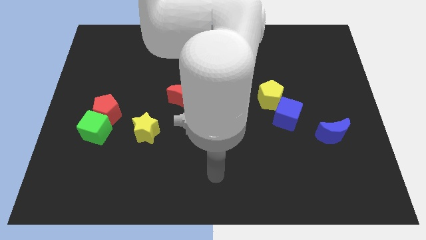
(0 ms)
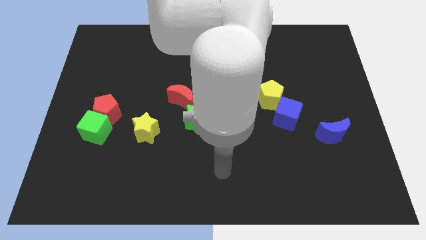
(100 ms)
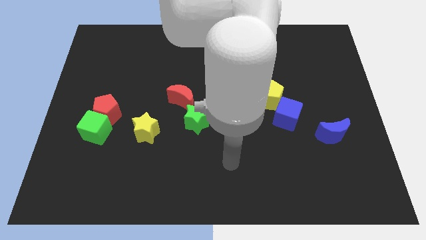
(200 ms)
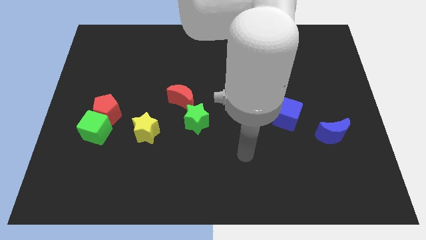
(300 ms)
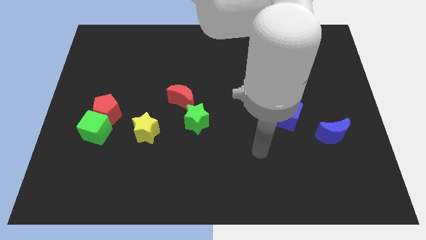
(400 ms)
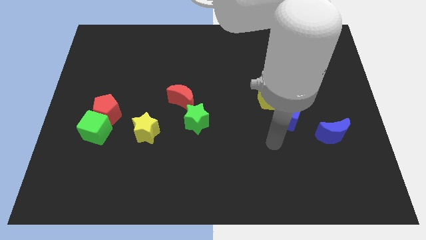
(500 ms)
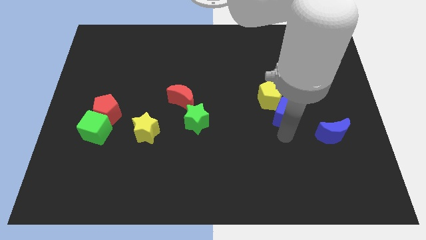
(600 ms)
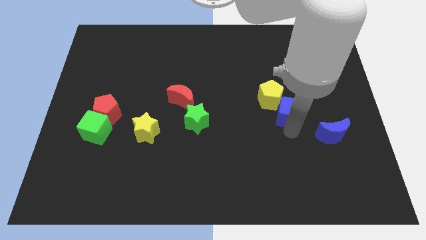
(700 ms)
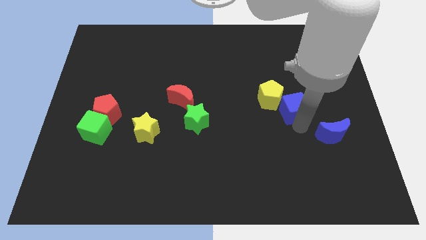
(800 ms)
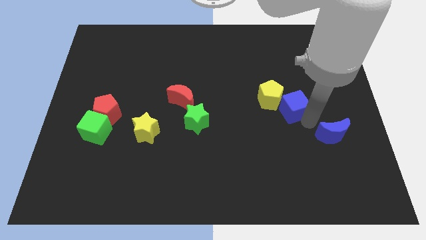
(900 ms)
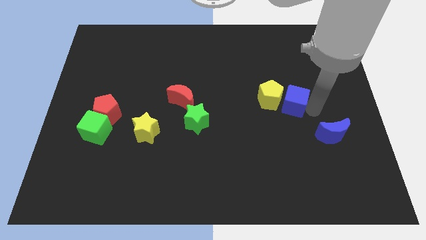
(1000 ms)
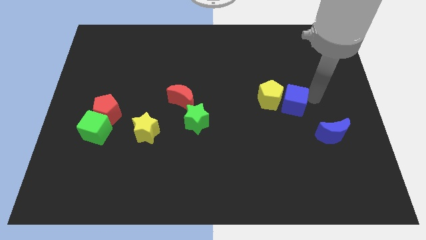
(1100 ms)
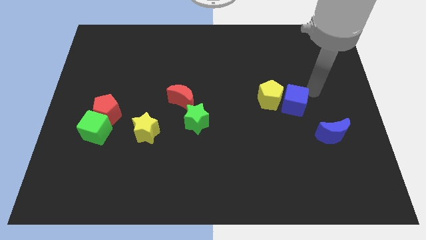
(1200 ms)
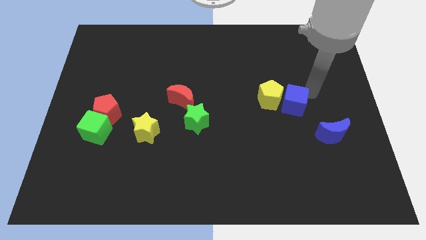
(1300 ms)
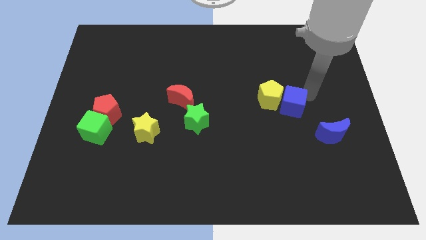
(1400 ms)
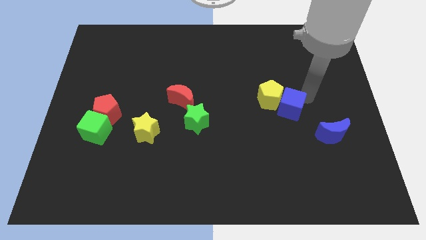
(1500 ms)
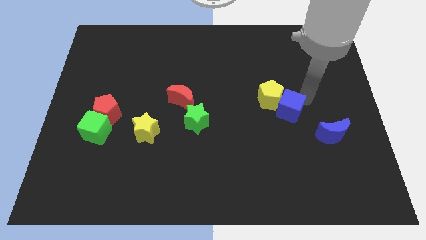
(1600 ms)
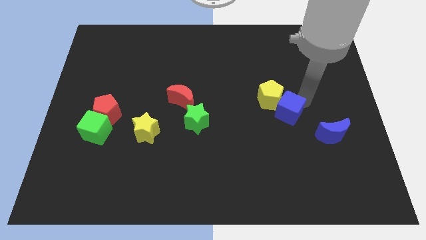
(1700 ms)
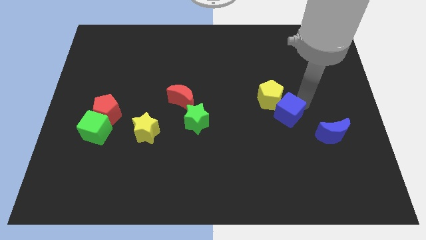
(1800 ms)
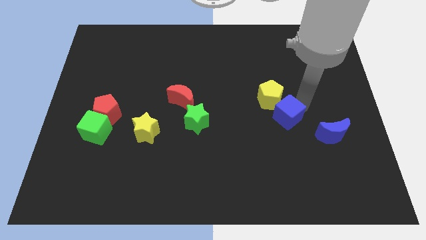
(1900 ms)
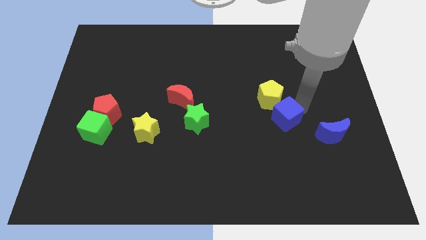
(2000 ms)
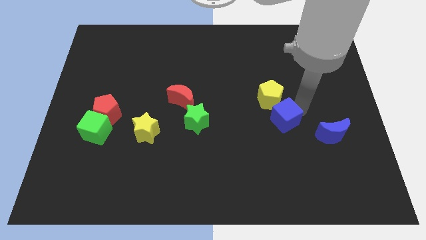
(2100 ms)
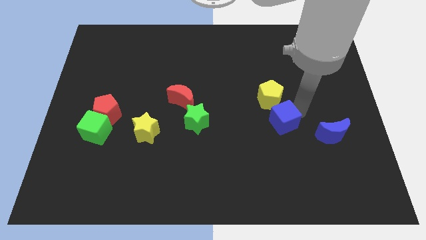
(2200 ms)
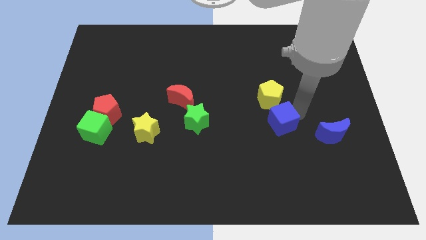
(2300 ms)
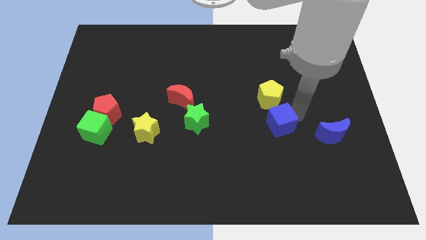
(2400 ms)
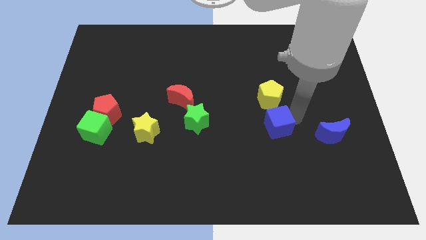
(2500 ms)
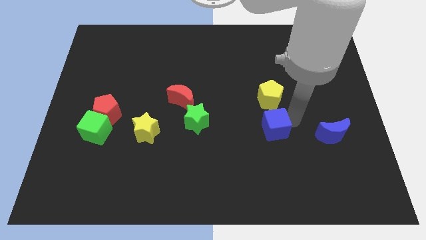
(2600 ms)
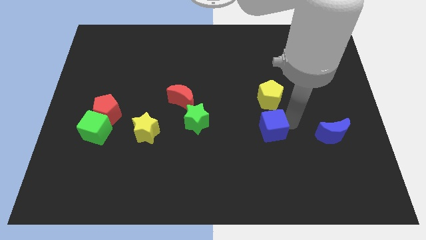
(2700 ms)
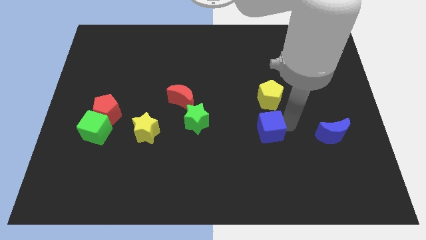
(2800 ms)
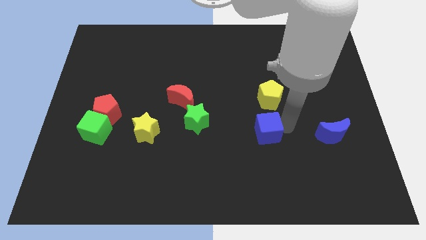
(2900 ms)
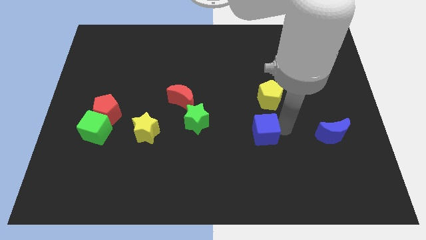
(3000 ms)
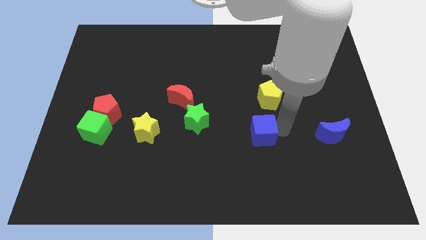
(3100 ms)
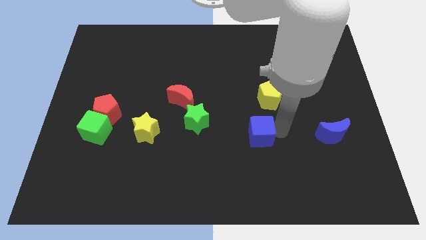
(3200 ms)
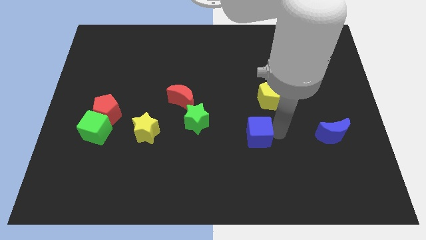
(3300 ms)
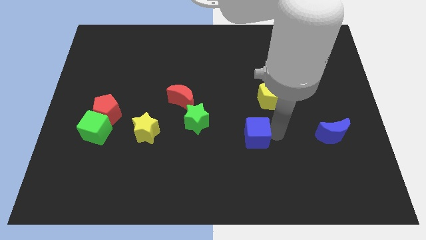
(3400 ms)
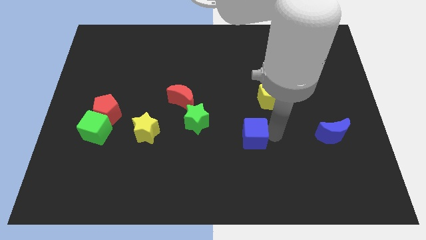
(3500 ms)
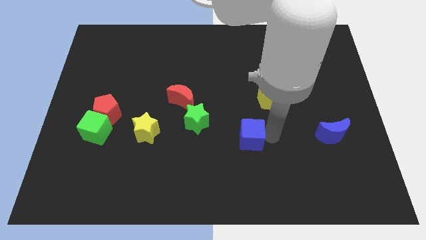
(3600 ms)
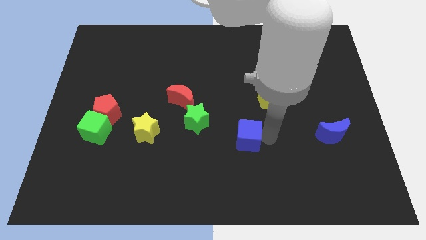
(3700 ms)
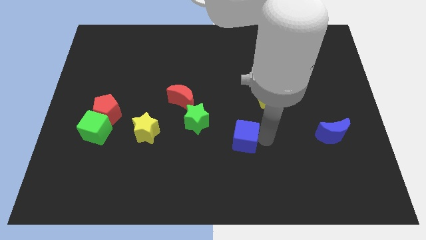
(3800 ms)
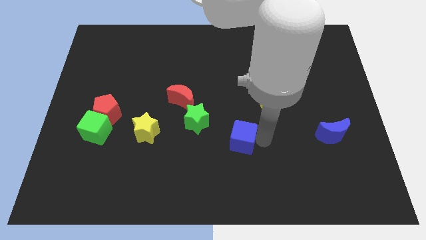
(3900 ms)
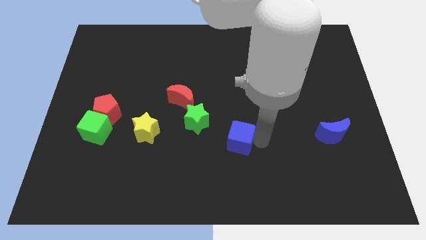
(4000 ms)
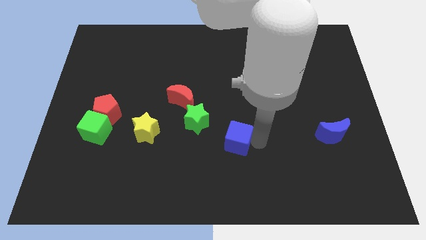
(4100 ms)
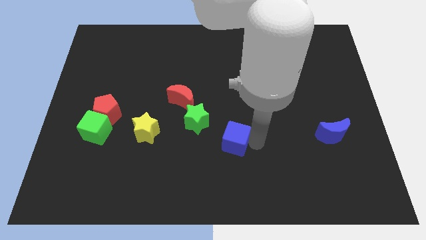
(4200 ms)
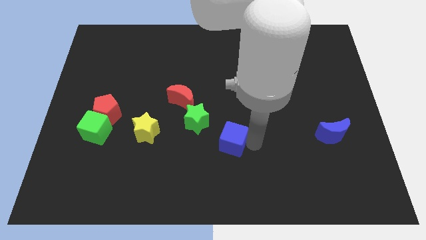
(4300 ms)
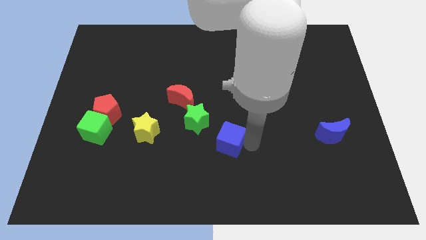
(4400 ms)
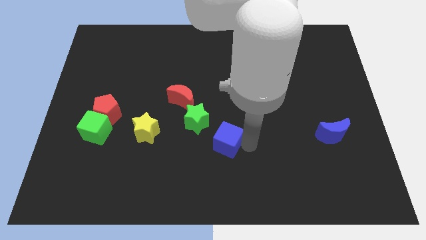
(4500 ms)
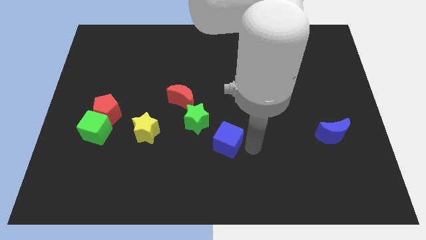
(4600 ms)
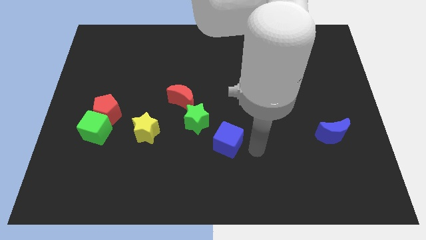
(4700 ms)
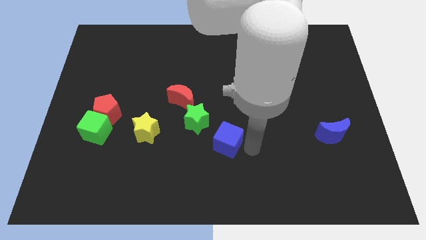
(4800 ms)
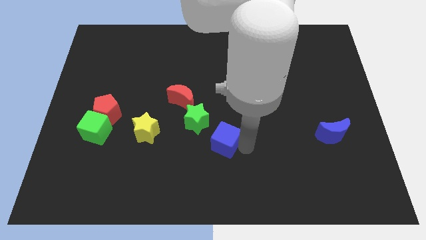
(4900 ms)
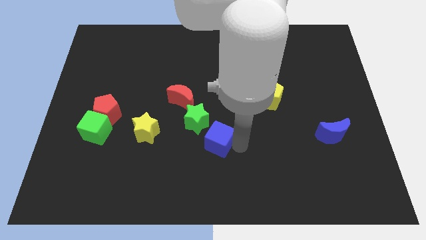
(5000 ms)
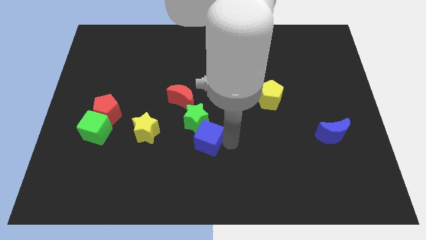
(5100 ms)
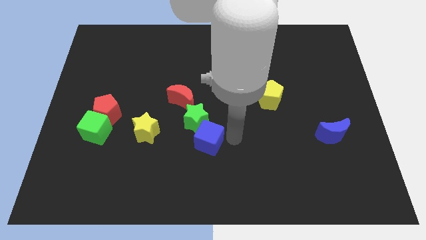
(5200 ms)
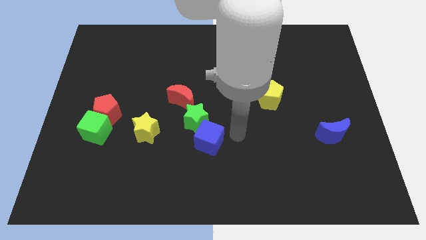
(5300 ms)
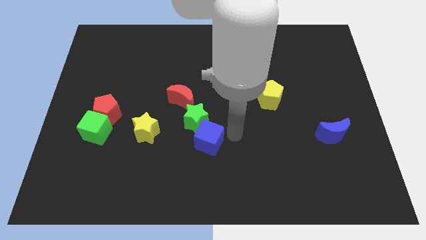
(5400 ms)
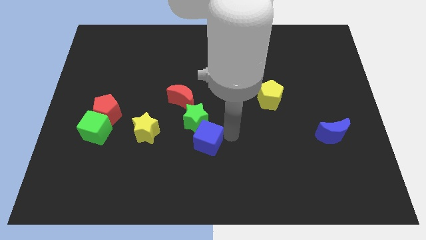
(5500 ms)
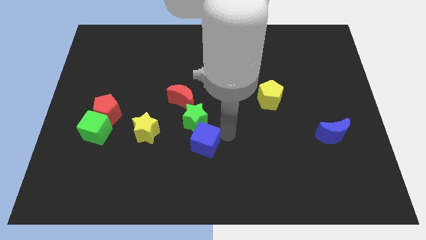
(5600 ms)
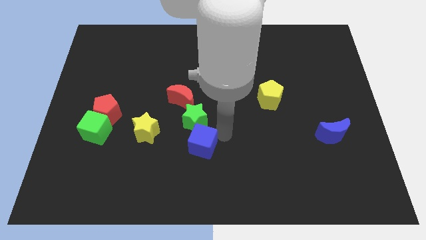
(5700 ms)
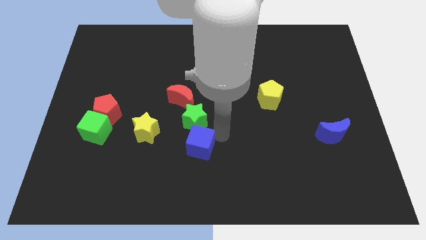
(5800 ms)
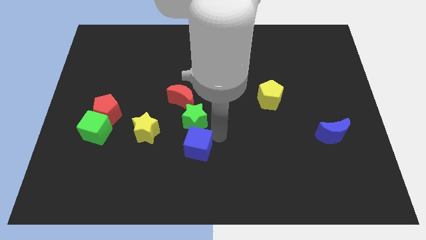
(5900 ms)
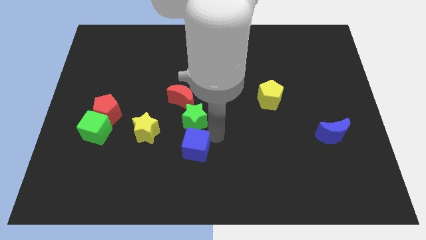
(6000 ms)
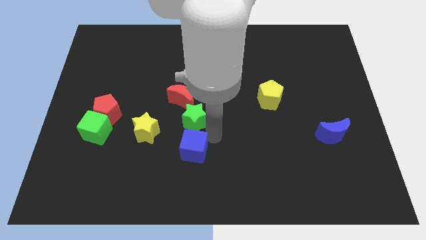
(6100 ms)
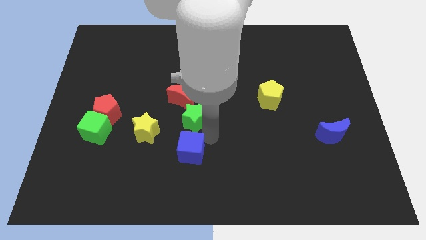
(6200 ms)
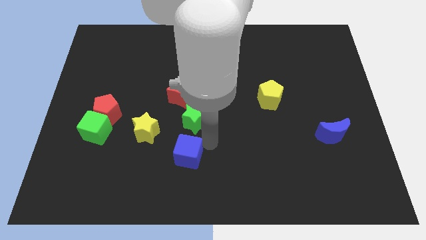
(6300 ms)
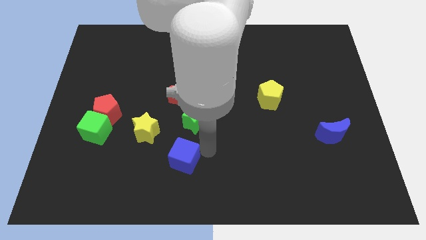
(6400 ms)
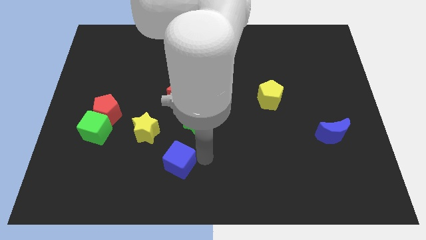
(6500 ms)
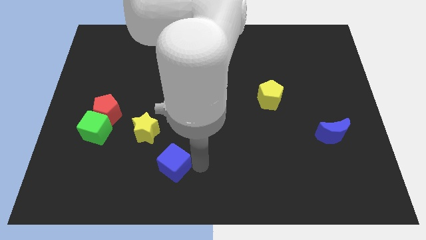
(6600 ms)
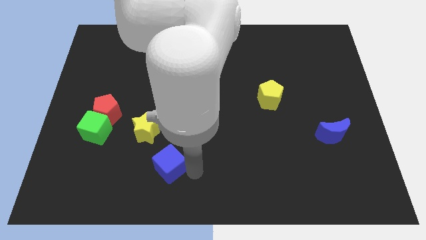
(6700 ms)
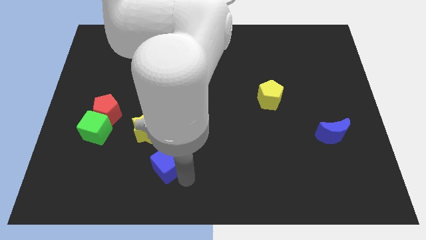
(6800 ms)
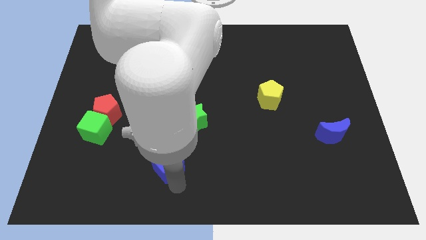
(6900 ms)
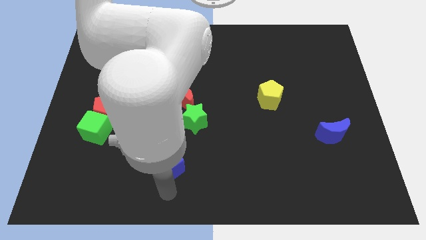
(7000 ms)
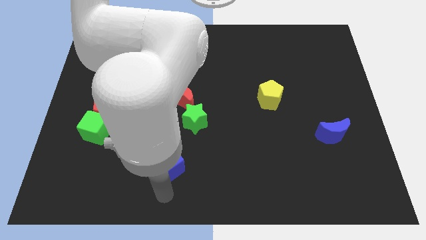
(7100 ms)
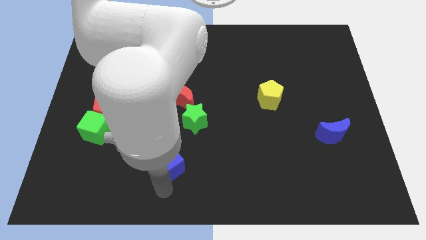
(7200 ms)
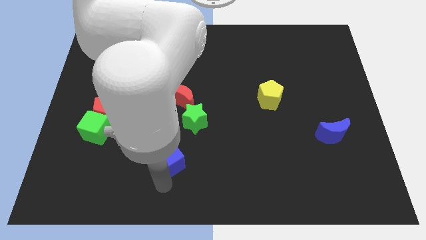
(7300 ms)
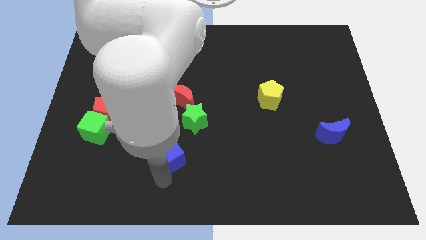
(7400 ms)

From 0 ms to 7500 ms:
push the blue cube left

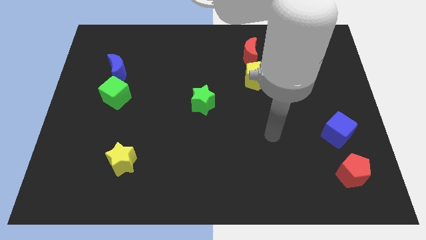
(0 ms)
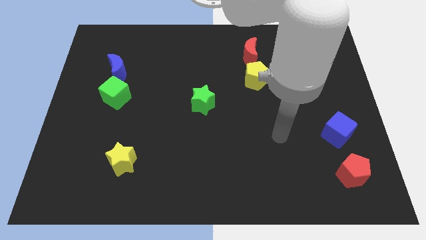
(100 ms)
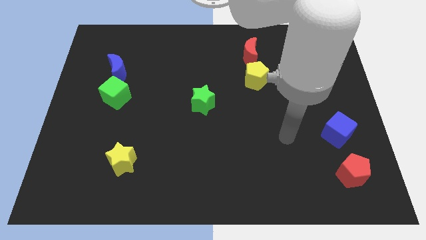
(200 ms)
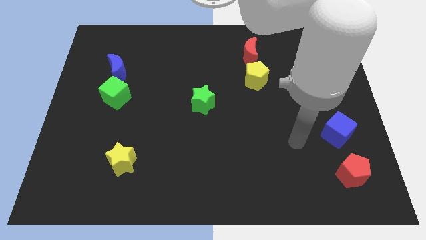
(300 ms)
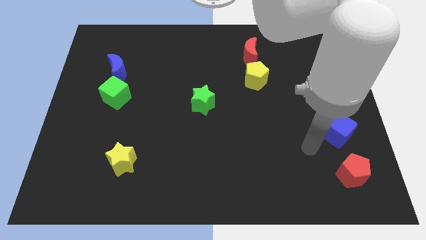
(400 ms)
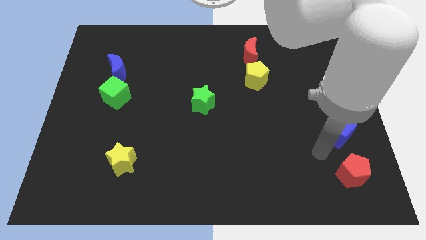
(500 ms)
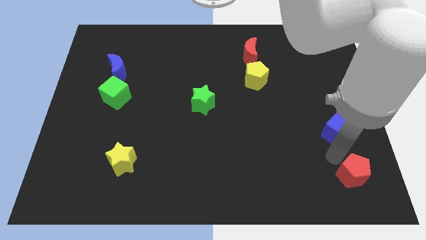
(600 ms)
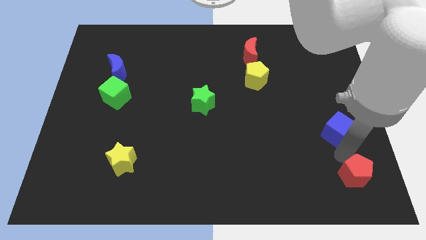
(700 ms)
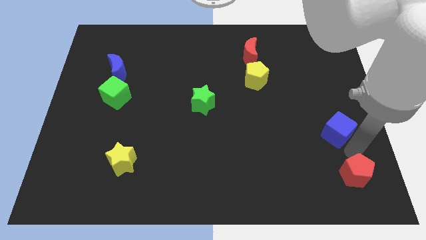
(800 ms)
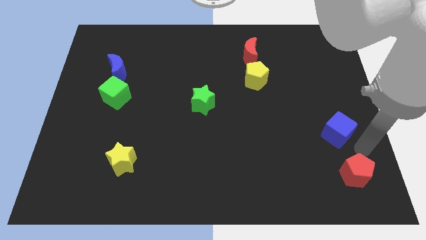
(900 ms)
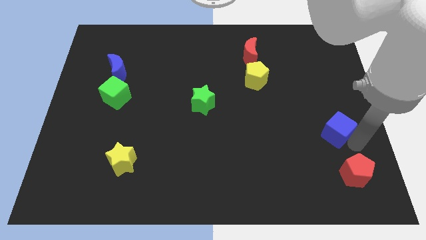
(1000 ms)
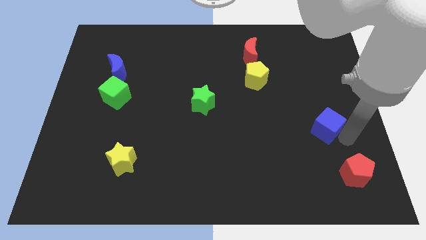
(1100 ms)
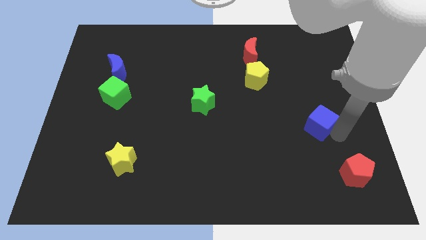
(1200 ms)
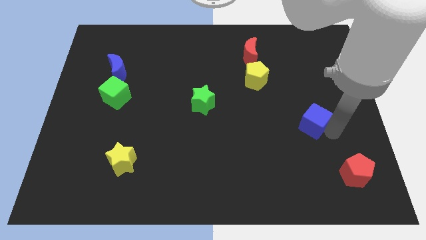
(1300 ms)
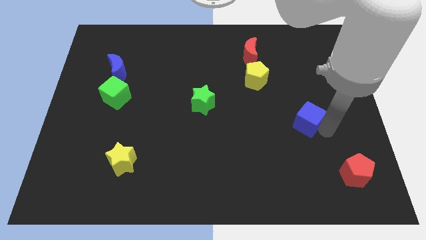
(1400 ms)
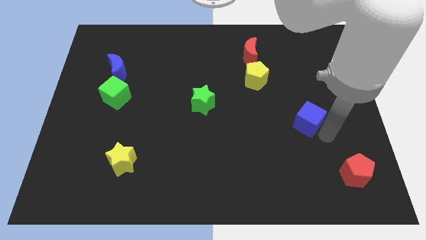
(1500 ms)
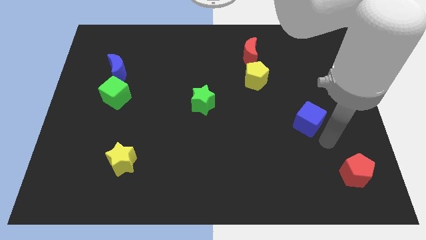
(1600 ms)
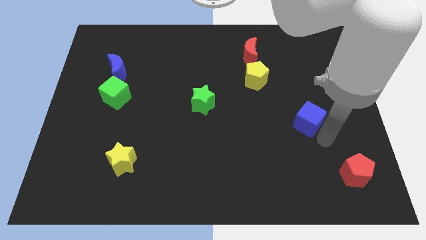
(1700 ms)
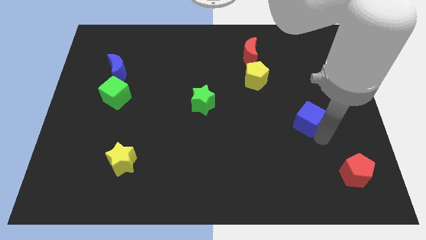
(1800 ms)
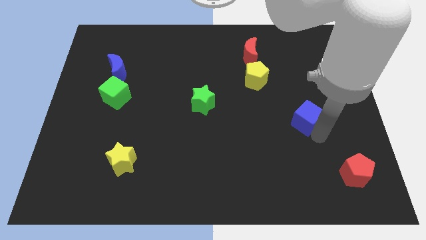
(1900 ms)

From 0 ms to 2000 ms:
slightly push the blue cube up and then to the left
